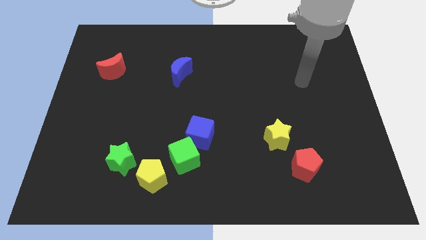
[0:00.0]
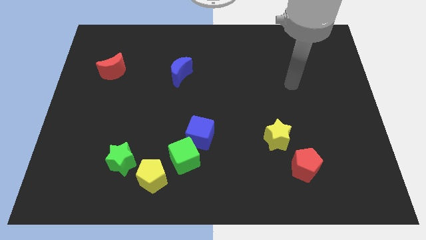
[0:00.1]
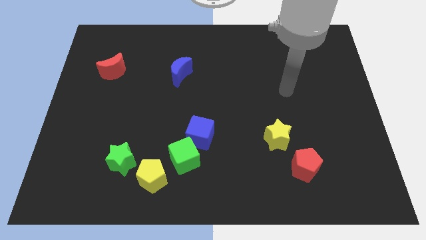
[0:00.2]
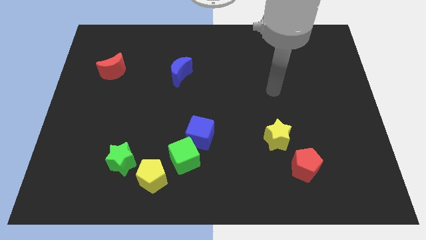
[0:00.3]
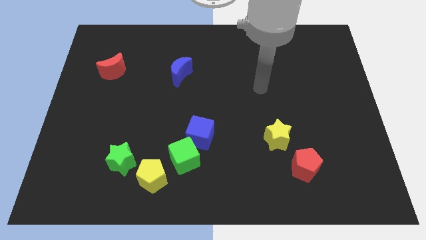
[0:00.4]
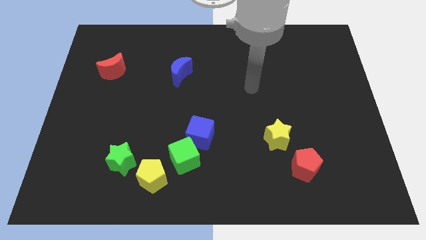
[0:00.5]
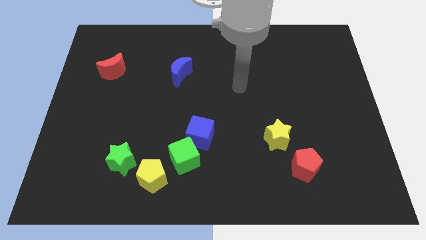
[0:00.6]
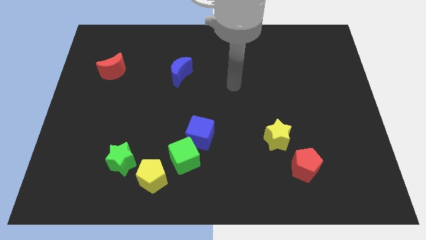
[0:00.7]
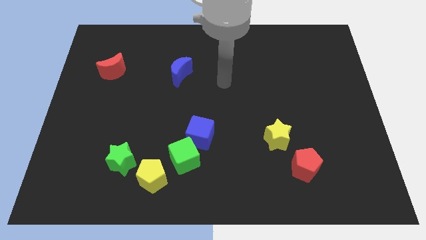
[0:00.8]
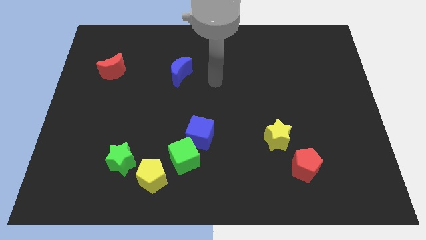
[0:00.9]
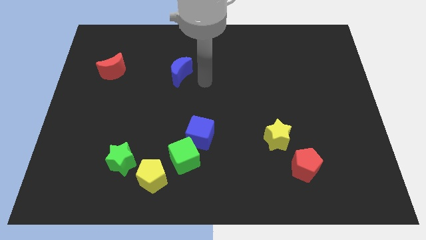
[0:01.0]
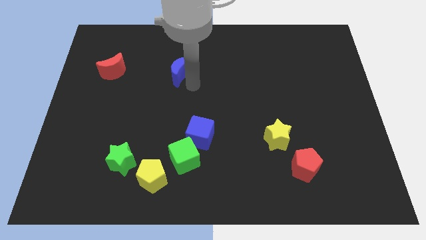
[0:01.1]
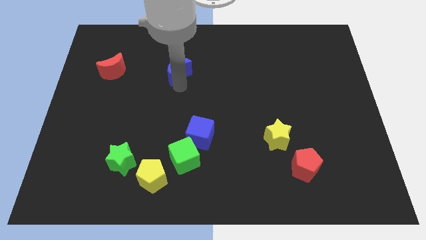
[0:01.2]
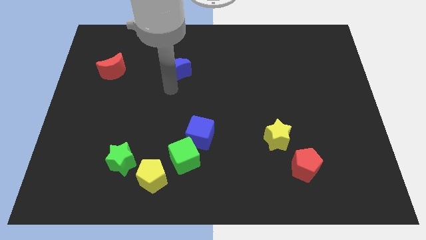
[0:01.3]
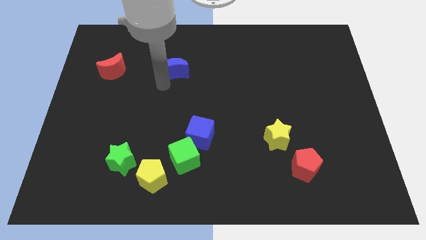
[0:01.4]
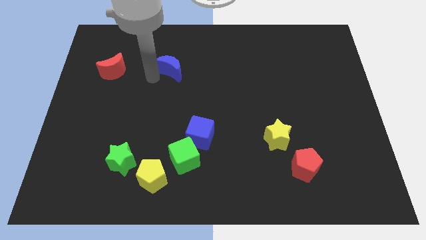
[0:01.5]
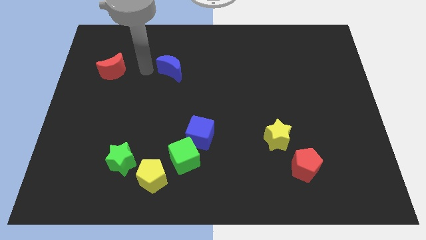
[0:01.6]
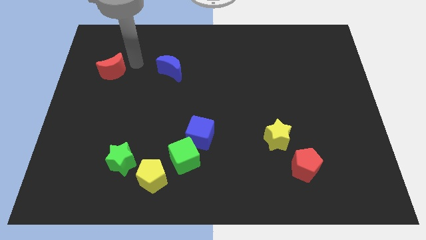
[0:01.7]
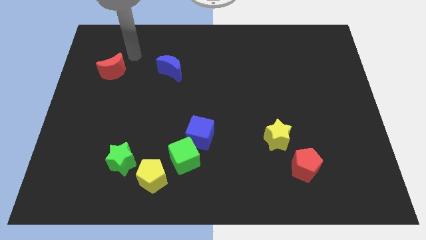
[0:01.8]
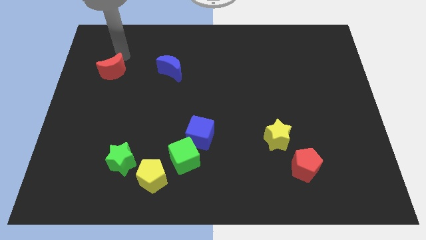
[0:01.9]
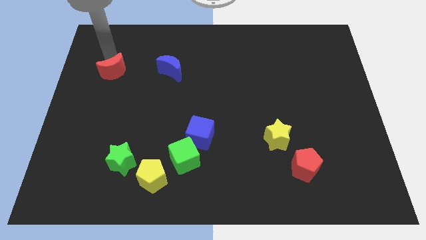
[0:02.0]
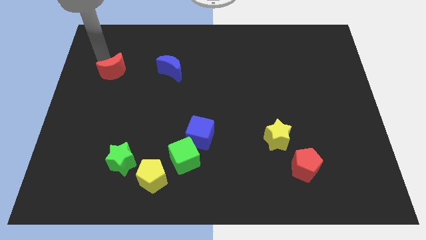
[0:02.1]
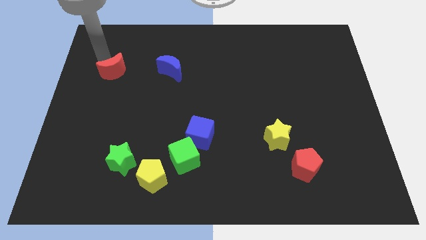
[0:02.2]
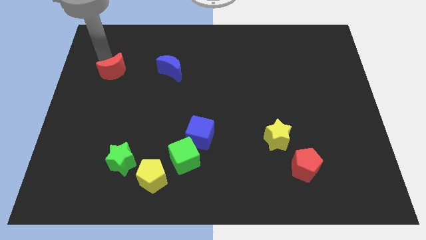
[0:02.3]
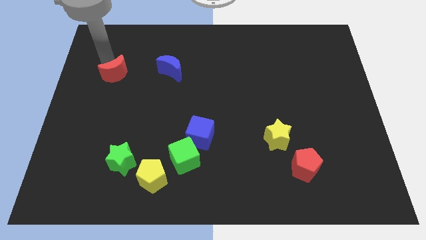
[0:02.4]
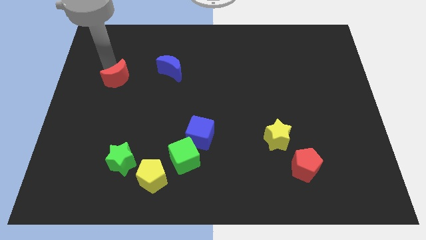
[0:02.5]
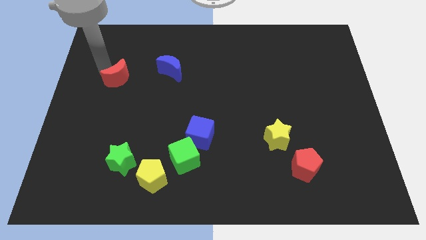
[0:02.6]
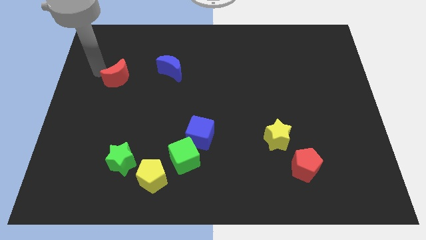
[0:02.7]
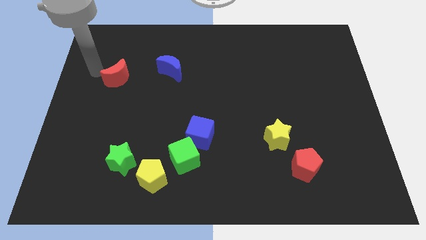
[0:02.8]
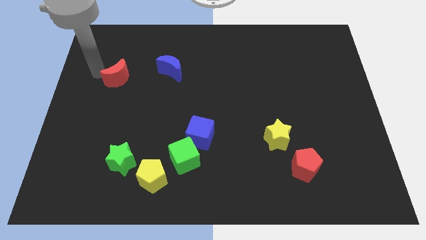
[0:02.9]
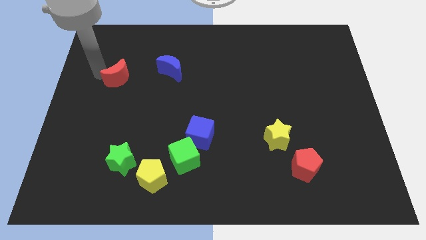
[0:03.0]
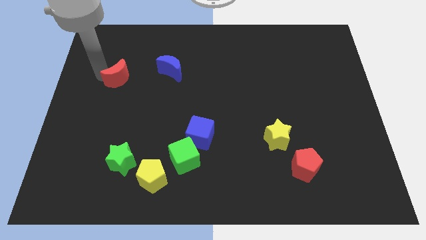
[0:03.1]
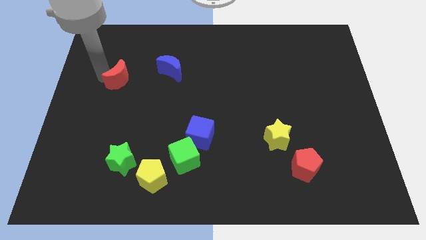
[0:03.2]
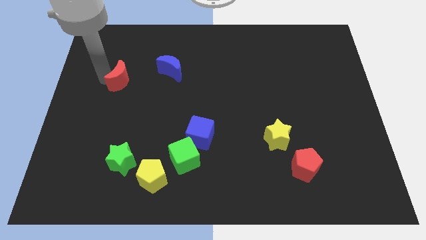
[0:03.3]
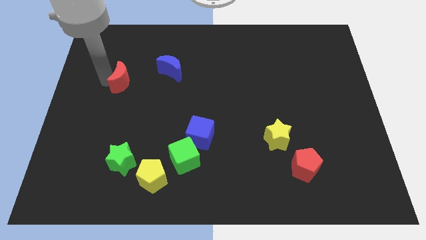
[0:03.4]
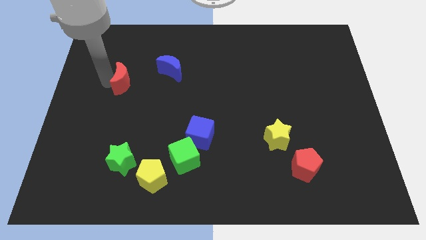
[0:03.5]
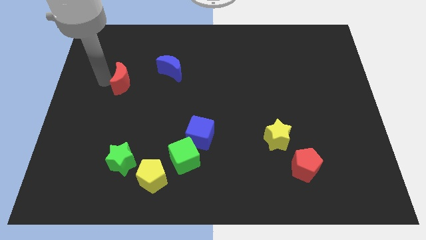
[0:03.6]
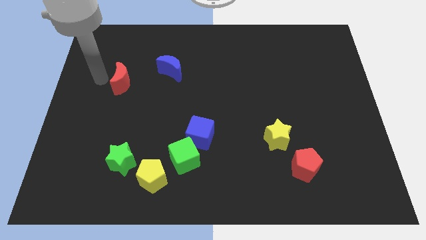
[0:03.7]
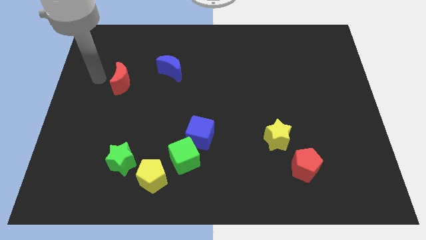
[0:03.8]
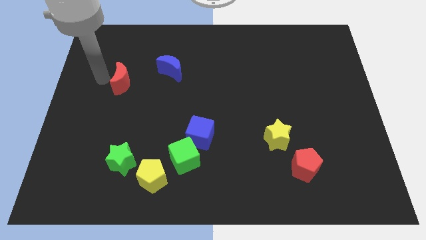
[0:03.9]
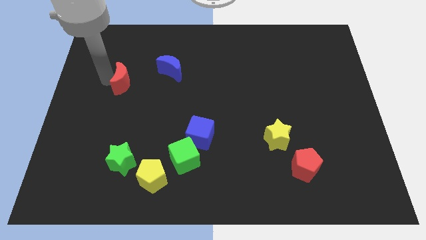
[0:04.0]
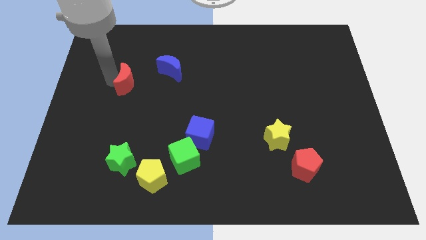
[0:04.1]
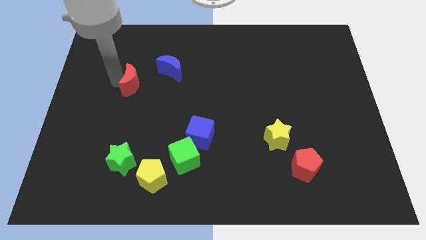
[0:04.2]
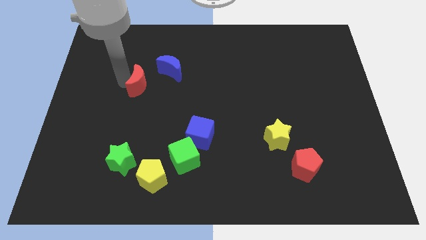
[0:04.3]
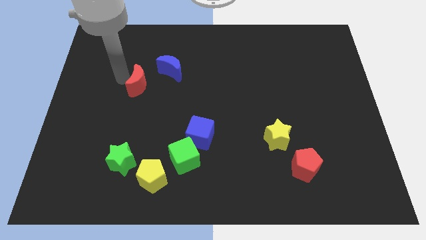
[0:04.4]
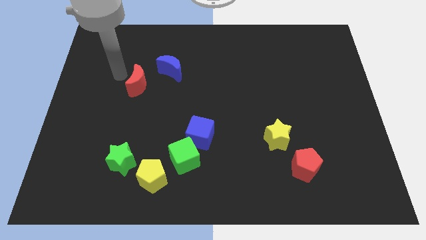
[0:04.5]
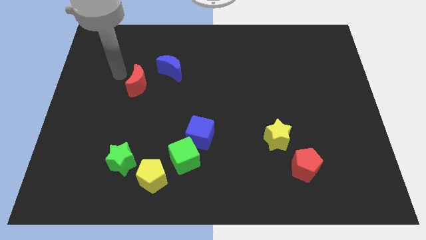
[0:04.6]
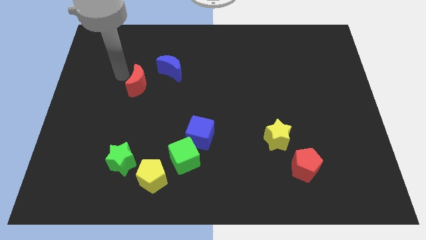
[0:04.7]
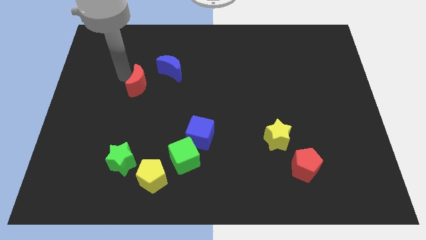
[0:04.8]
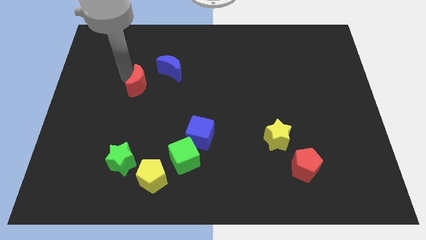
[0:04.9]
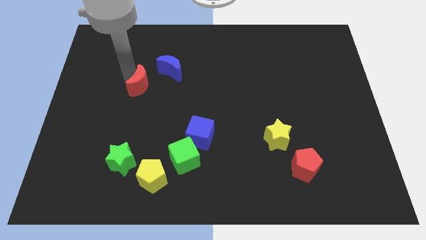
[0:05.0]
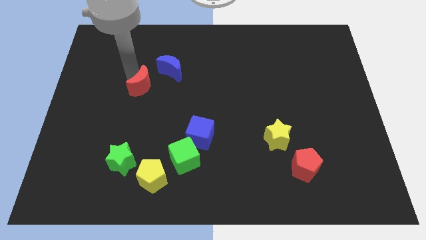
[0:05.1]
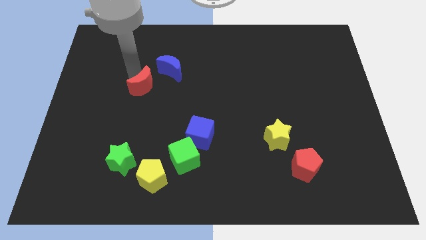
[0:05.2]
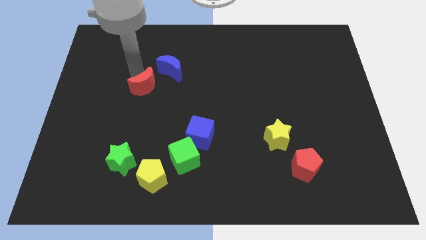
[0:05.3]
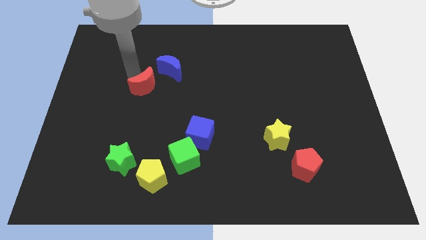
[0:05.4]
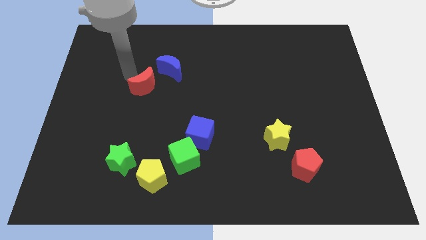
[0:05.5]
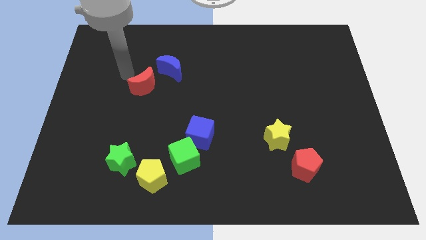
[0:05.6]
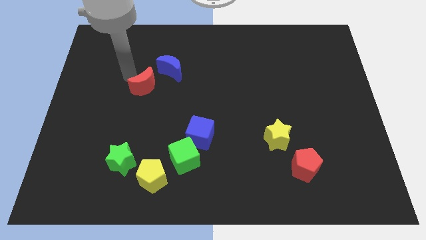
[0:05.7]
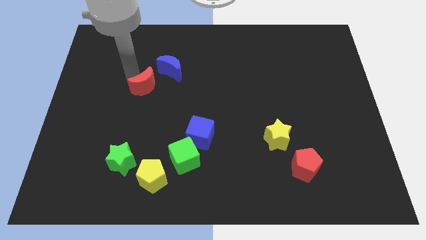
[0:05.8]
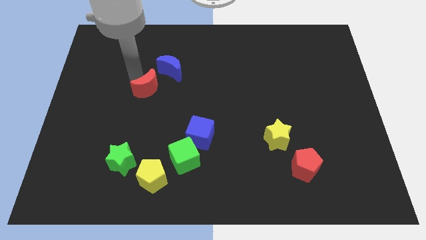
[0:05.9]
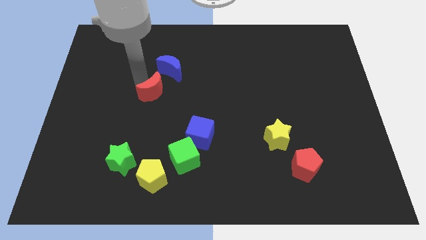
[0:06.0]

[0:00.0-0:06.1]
push the red moon to the bottom of the blue moon

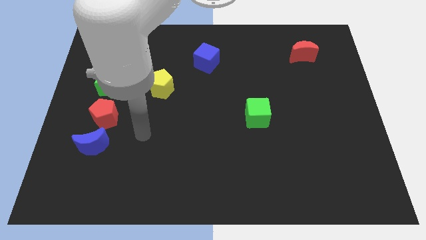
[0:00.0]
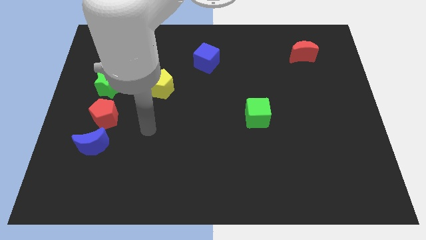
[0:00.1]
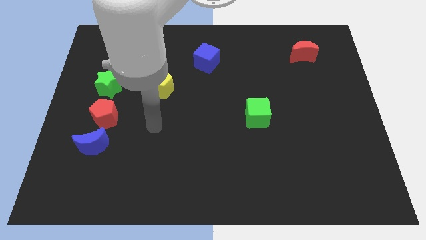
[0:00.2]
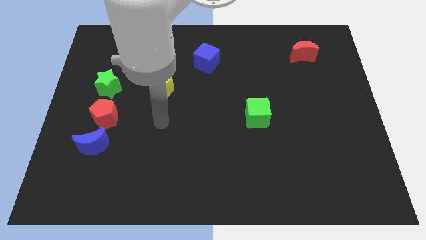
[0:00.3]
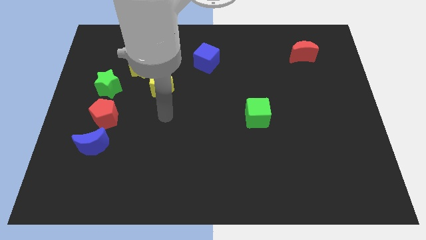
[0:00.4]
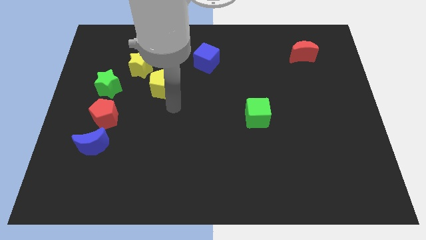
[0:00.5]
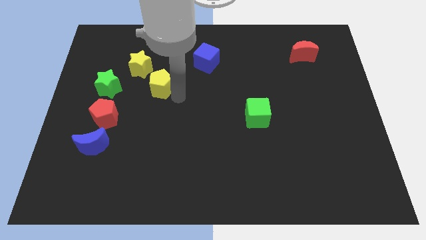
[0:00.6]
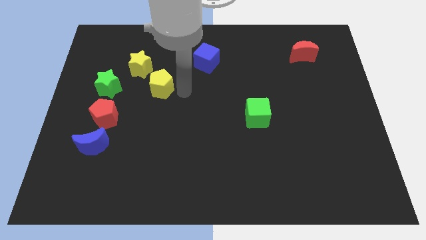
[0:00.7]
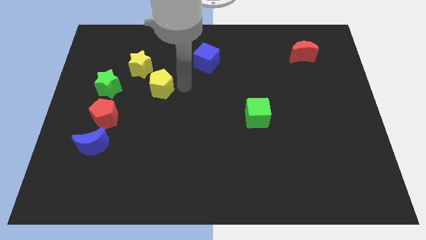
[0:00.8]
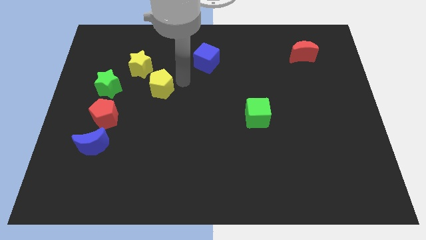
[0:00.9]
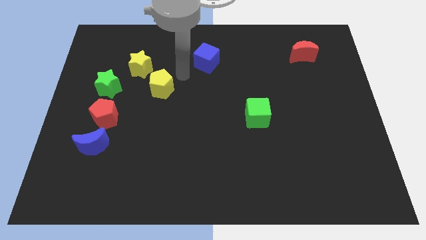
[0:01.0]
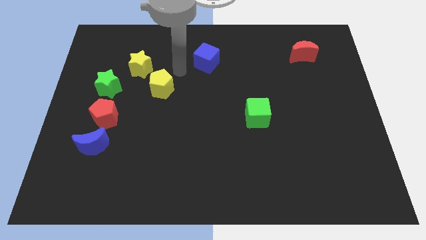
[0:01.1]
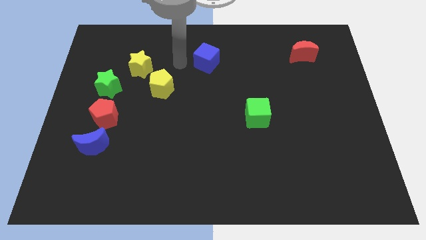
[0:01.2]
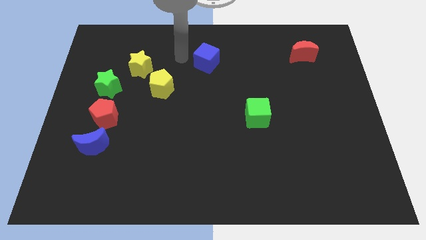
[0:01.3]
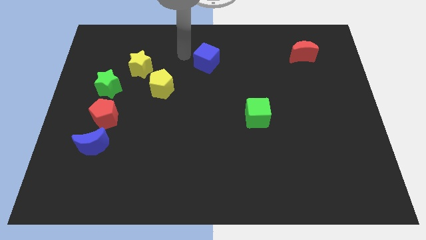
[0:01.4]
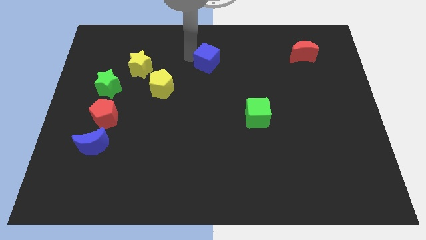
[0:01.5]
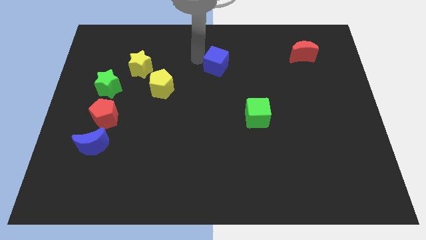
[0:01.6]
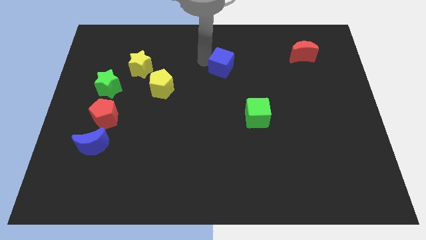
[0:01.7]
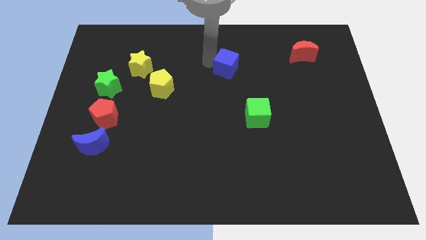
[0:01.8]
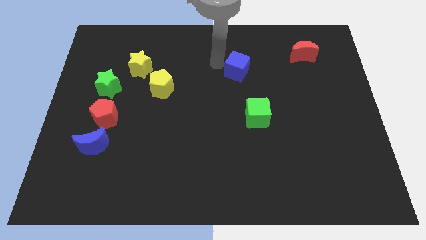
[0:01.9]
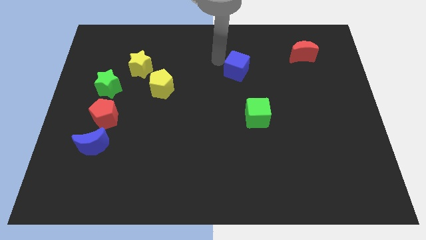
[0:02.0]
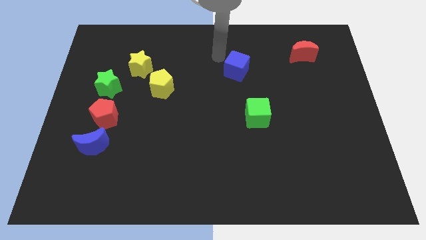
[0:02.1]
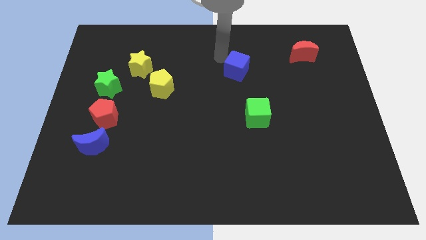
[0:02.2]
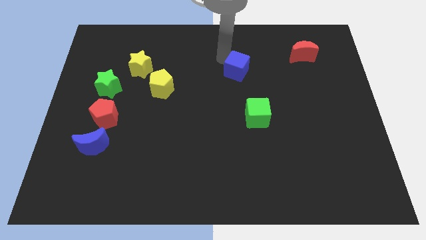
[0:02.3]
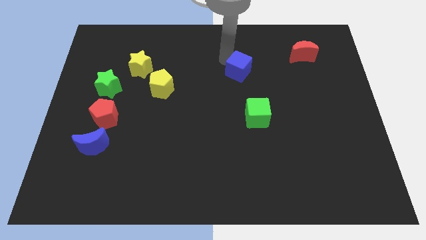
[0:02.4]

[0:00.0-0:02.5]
slide the blue cube above the green cube
